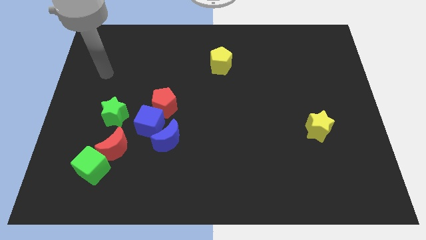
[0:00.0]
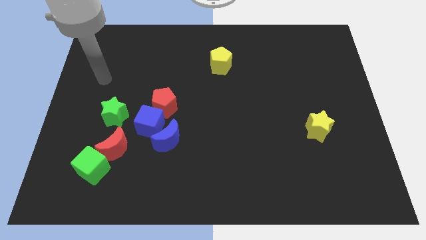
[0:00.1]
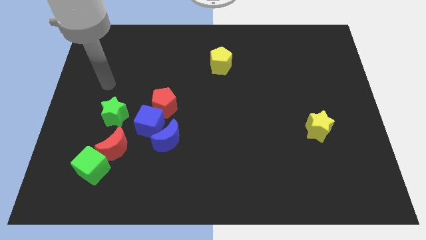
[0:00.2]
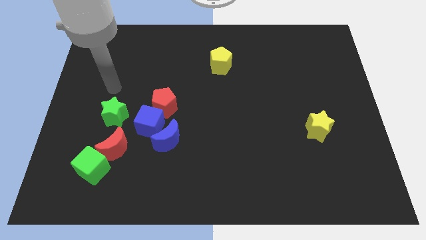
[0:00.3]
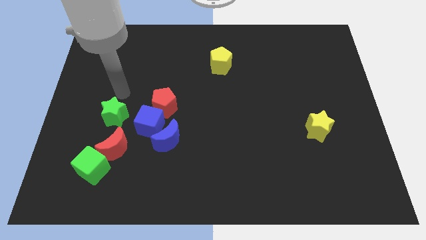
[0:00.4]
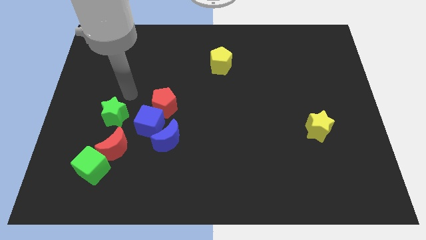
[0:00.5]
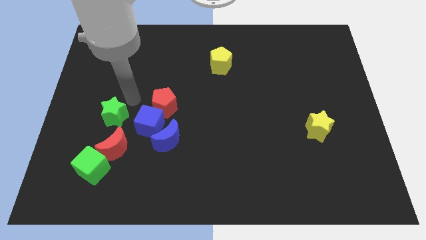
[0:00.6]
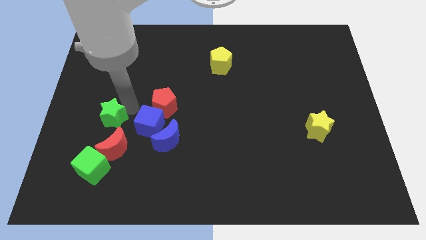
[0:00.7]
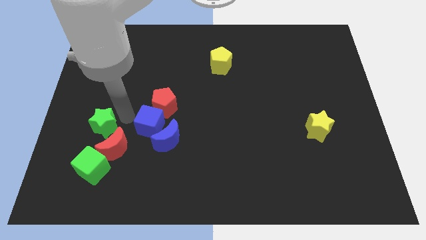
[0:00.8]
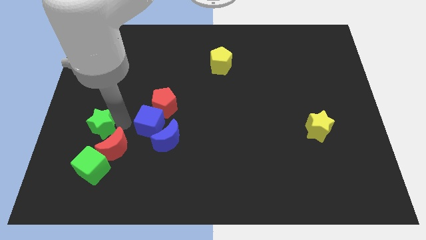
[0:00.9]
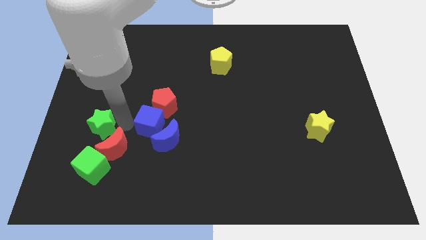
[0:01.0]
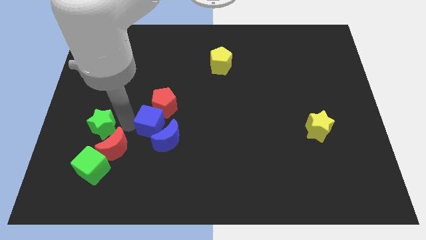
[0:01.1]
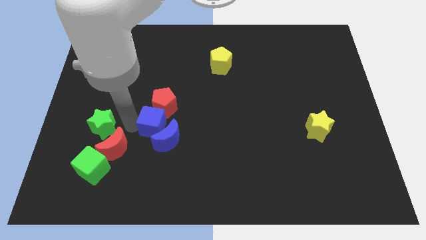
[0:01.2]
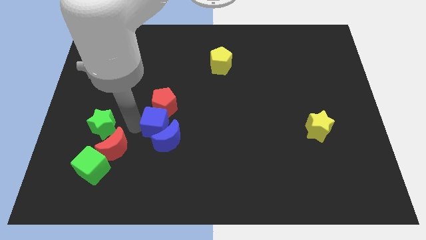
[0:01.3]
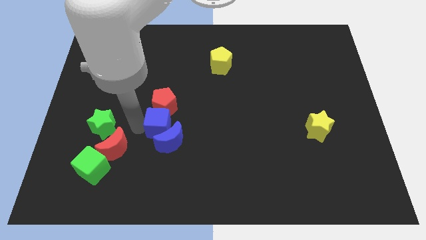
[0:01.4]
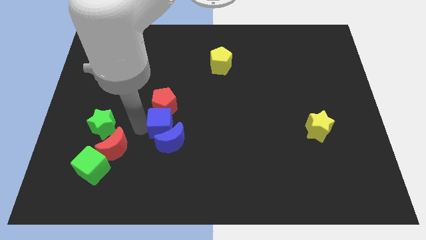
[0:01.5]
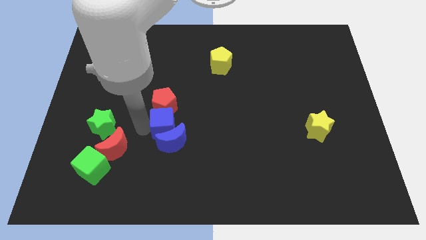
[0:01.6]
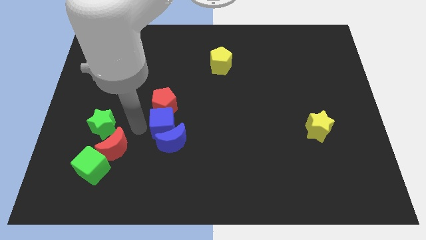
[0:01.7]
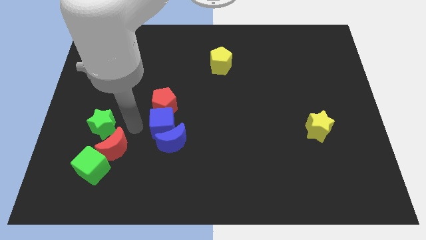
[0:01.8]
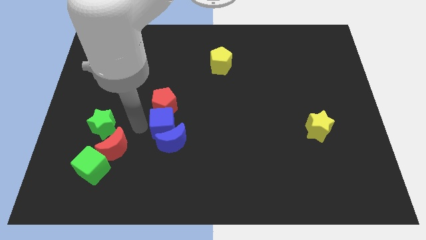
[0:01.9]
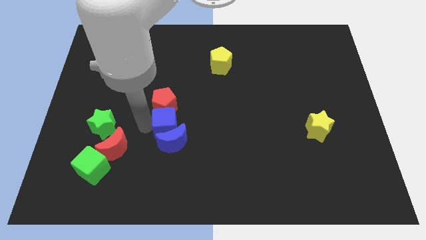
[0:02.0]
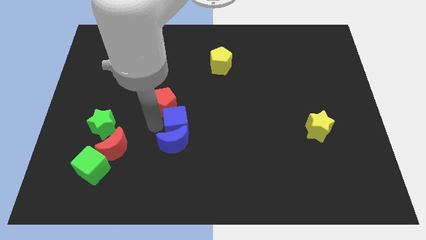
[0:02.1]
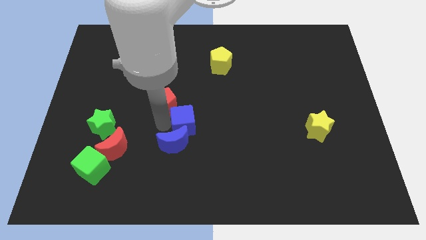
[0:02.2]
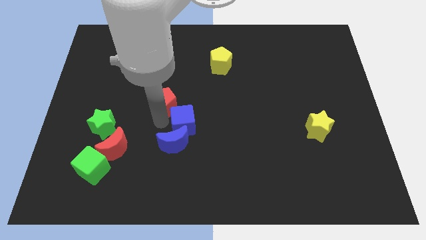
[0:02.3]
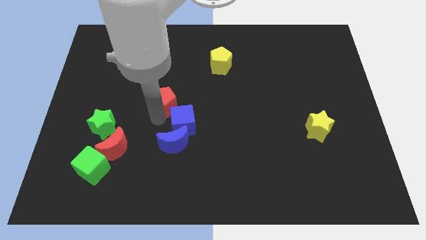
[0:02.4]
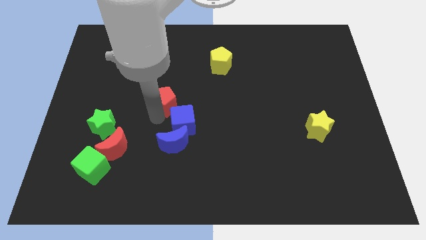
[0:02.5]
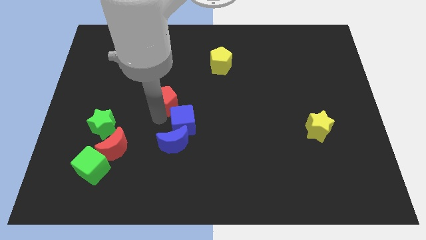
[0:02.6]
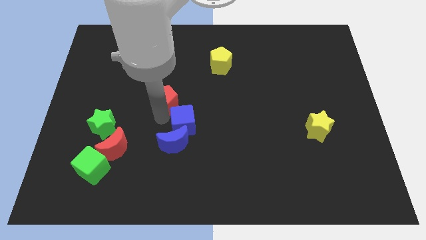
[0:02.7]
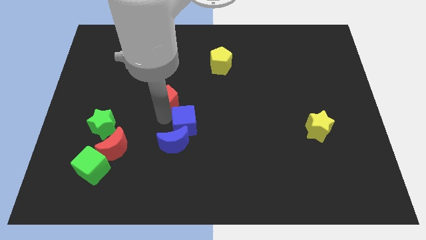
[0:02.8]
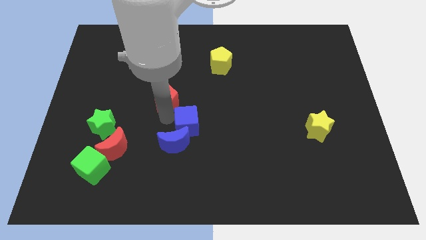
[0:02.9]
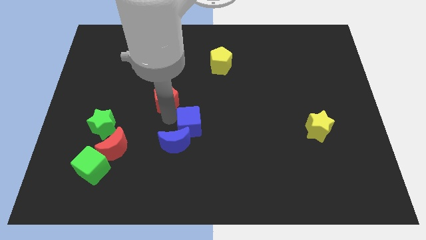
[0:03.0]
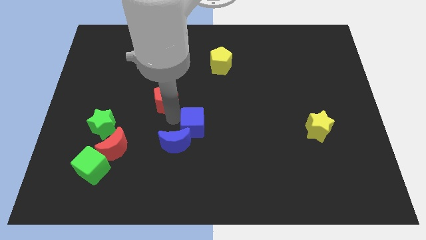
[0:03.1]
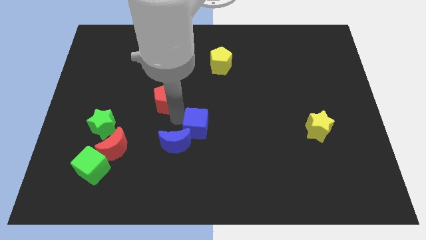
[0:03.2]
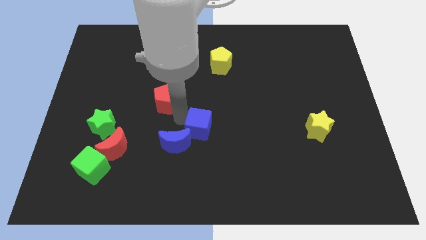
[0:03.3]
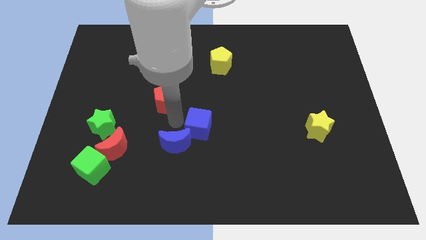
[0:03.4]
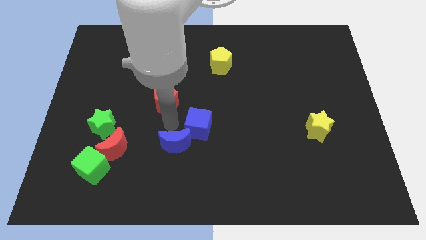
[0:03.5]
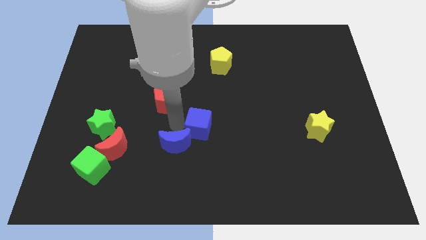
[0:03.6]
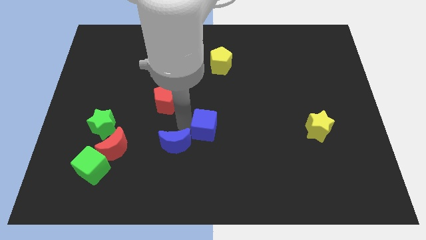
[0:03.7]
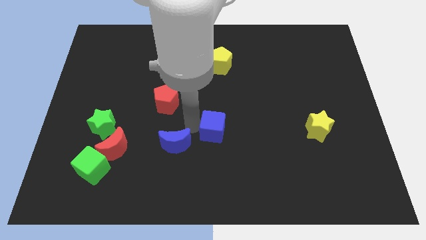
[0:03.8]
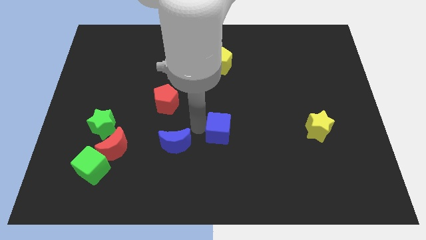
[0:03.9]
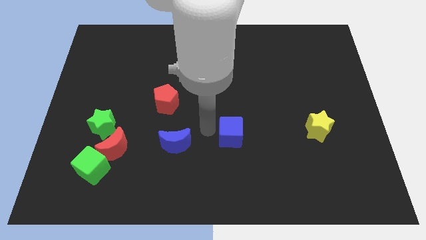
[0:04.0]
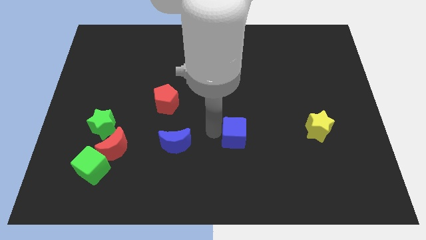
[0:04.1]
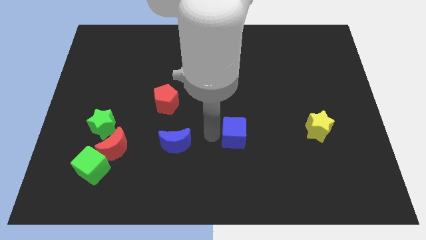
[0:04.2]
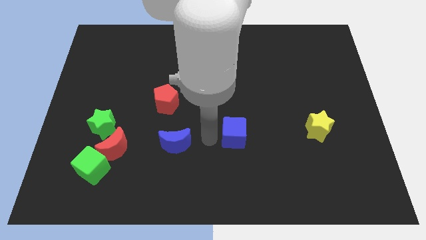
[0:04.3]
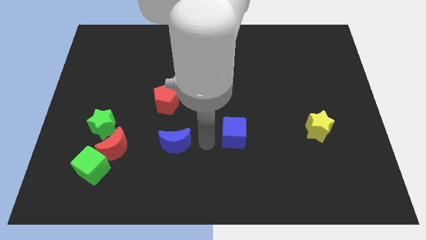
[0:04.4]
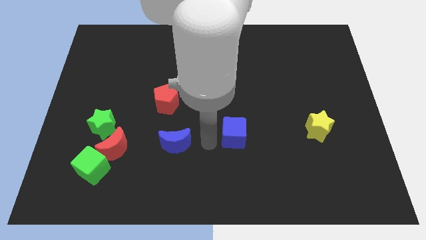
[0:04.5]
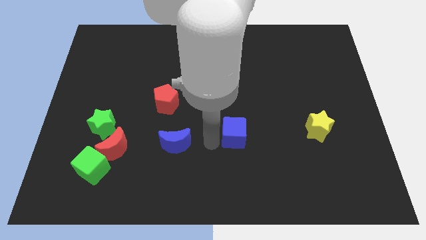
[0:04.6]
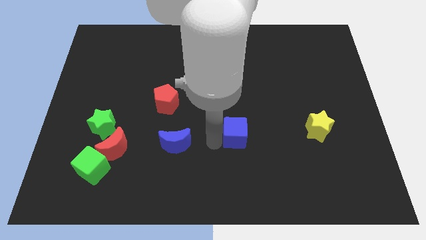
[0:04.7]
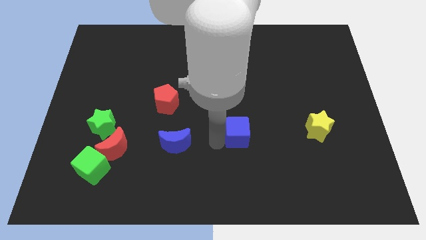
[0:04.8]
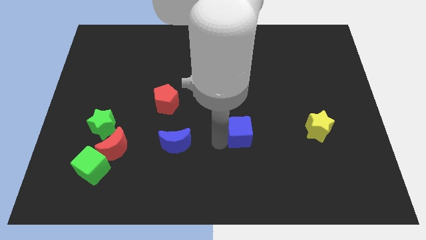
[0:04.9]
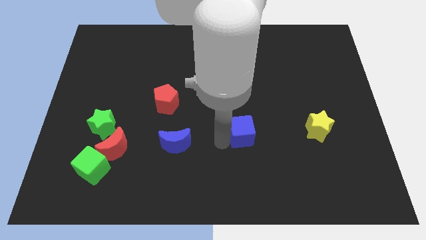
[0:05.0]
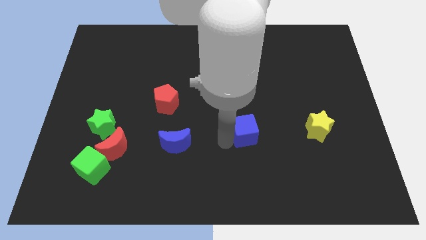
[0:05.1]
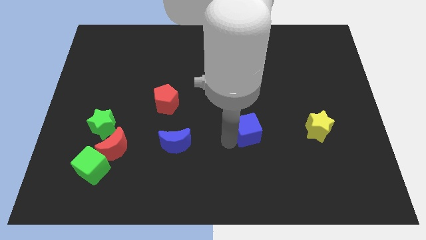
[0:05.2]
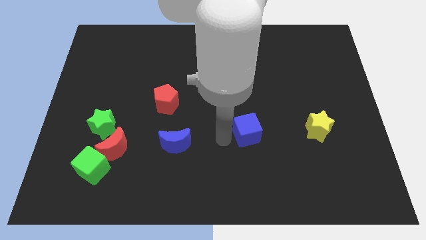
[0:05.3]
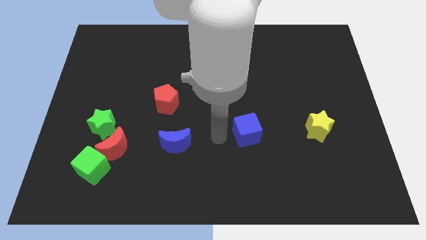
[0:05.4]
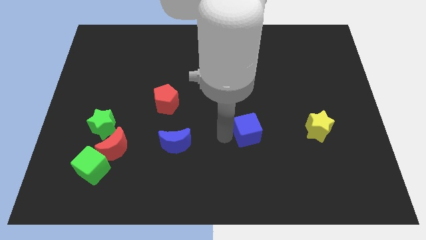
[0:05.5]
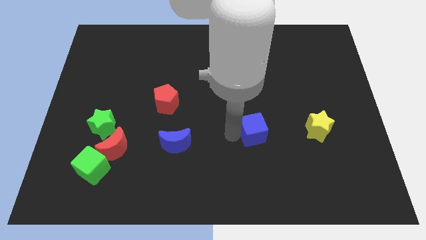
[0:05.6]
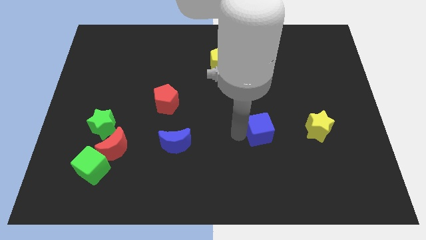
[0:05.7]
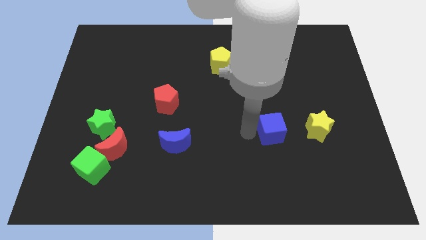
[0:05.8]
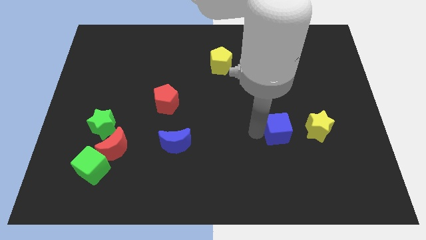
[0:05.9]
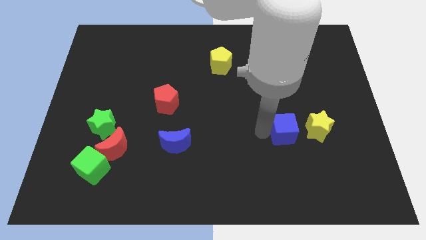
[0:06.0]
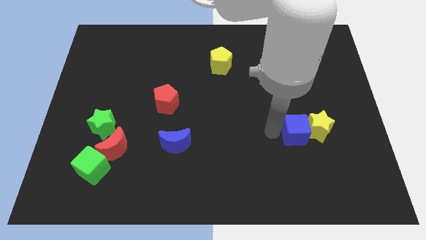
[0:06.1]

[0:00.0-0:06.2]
put the blue cube close to the yellow star
